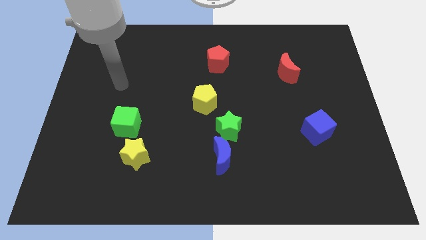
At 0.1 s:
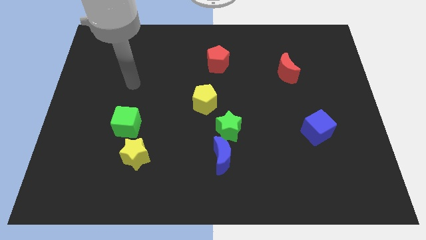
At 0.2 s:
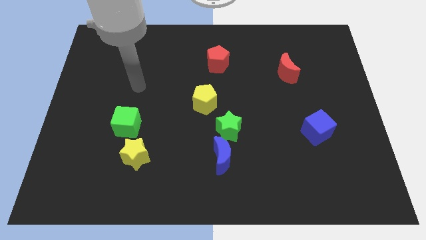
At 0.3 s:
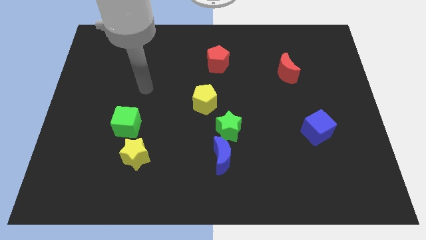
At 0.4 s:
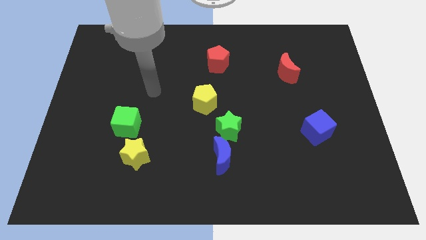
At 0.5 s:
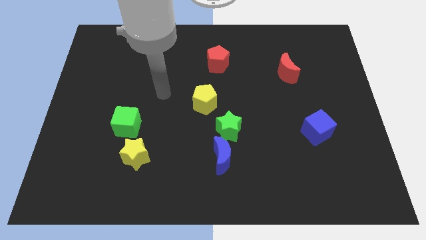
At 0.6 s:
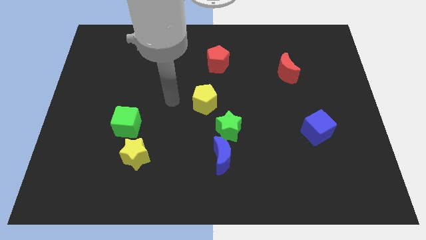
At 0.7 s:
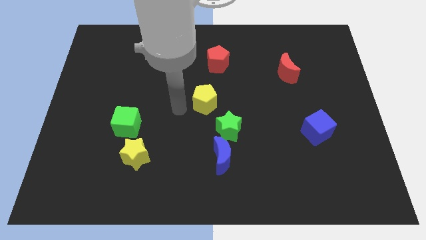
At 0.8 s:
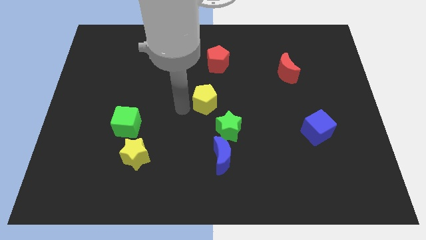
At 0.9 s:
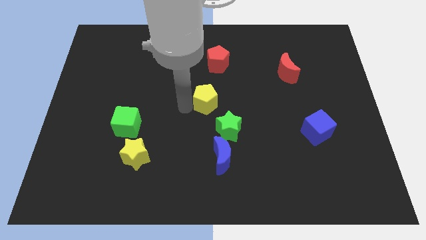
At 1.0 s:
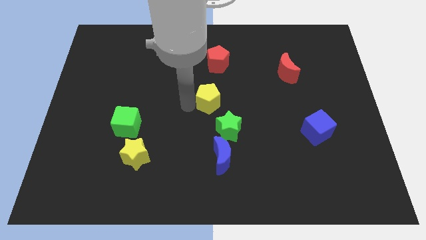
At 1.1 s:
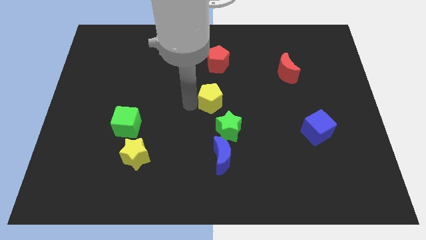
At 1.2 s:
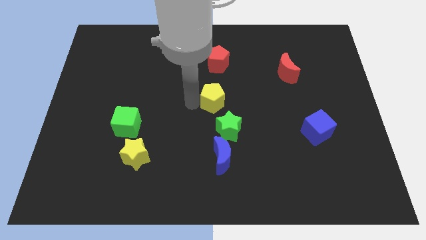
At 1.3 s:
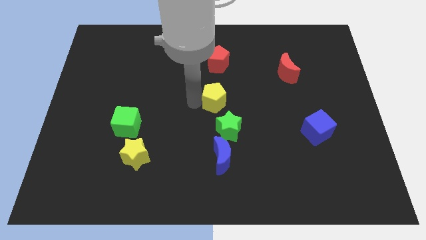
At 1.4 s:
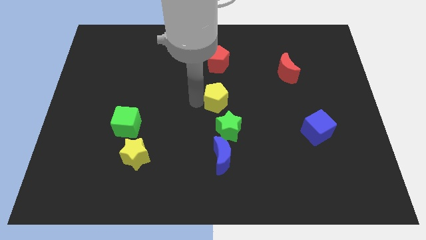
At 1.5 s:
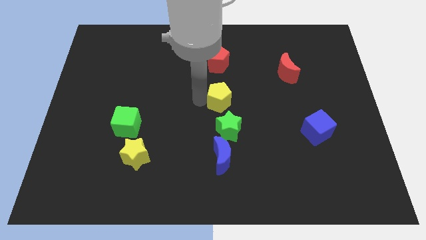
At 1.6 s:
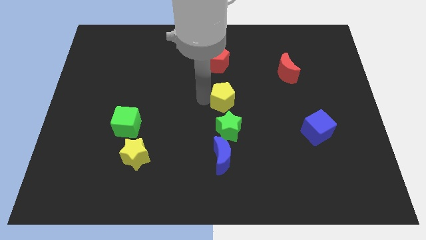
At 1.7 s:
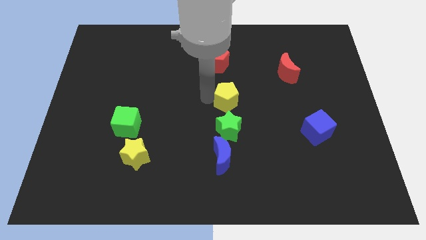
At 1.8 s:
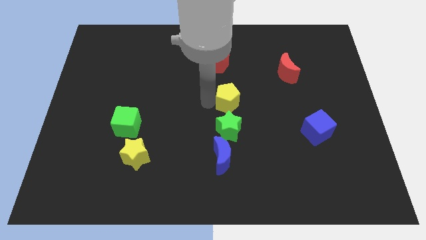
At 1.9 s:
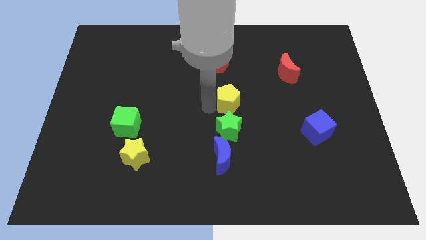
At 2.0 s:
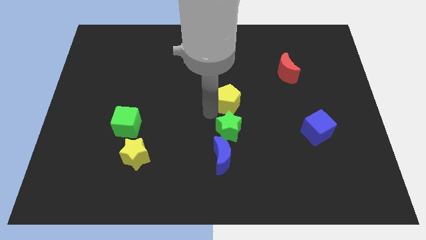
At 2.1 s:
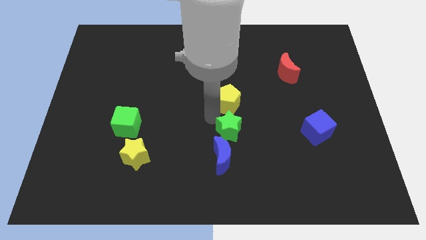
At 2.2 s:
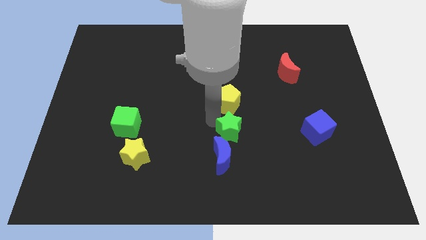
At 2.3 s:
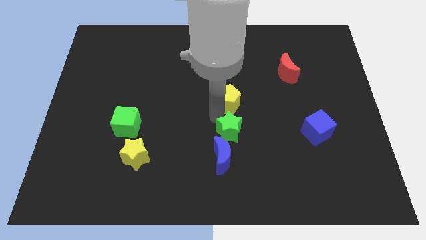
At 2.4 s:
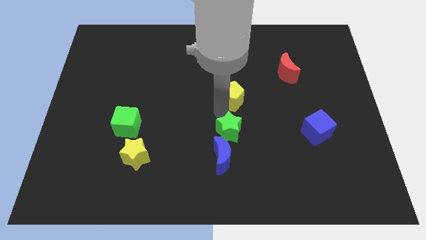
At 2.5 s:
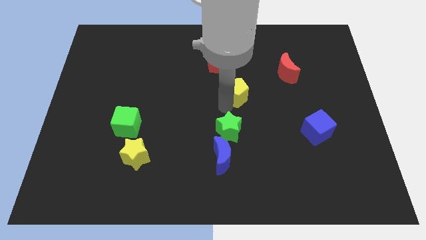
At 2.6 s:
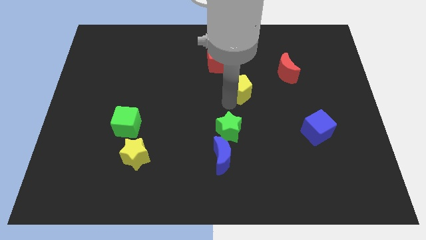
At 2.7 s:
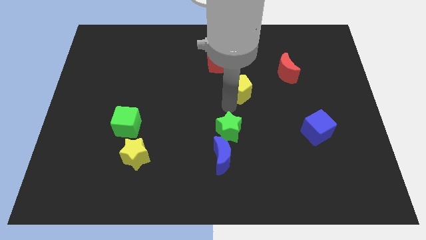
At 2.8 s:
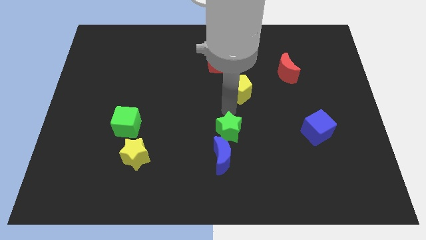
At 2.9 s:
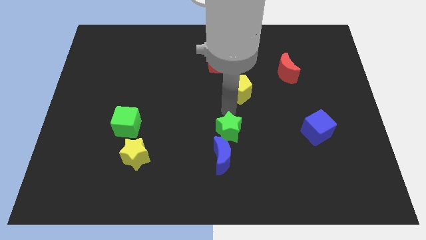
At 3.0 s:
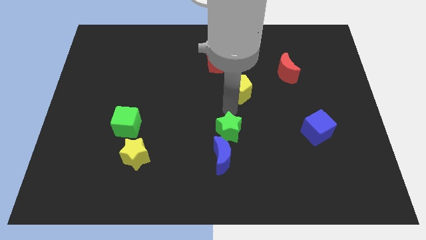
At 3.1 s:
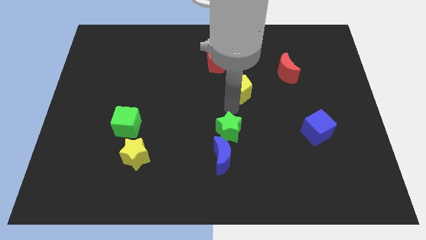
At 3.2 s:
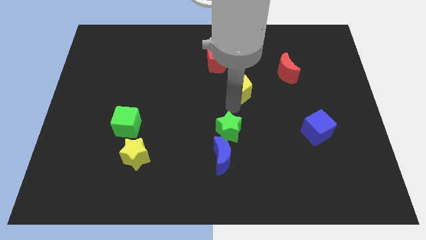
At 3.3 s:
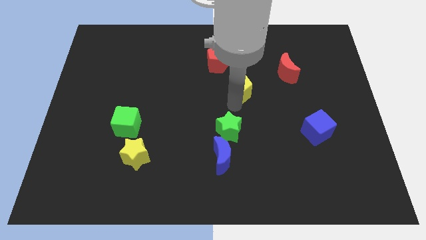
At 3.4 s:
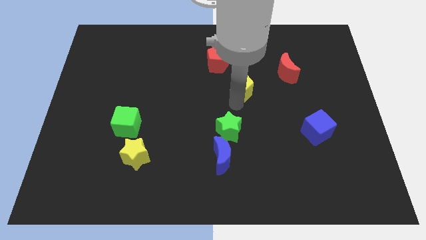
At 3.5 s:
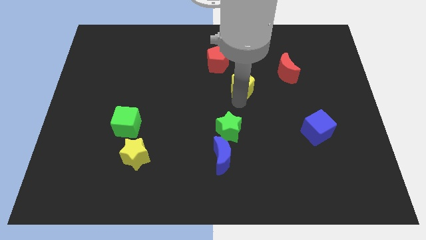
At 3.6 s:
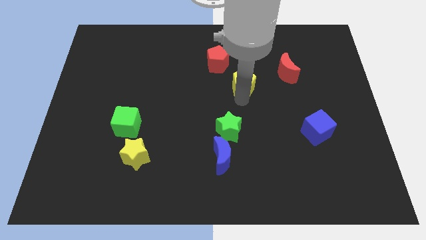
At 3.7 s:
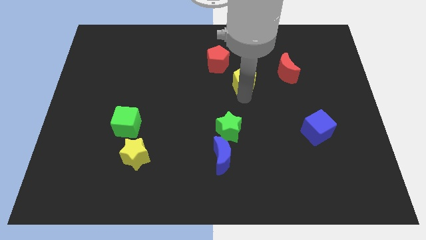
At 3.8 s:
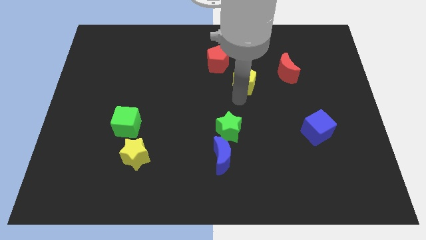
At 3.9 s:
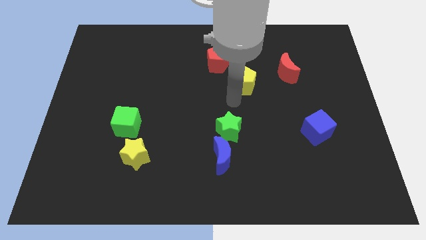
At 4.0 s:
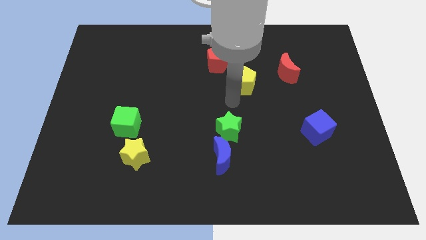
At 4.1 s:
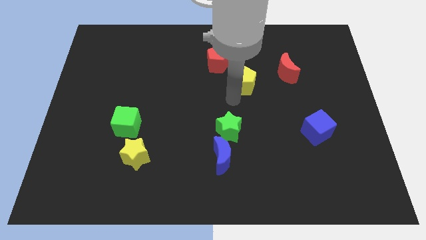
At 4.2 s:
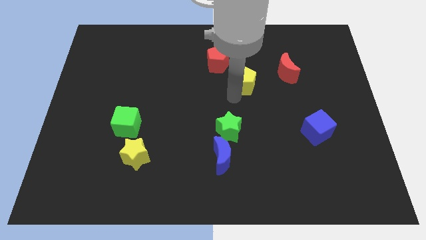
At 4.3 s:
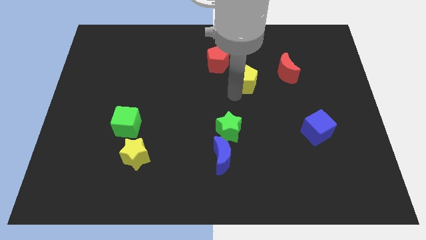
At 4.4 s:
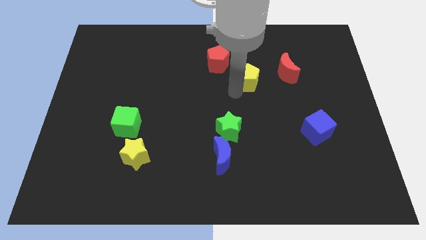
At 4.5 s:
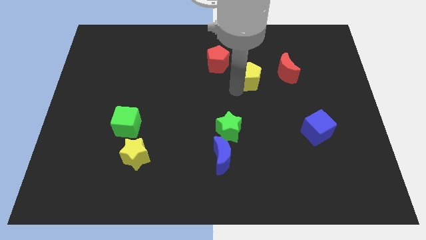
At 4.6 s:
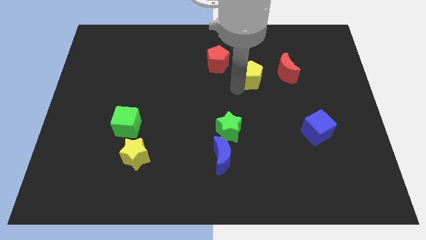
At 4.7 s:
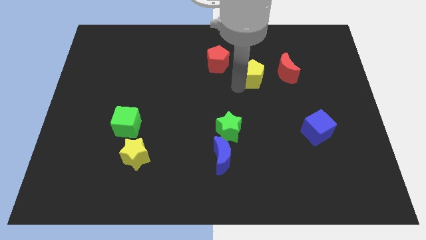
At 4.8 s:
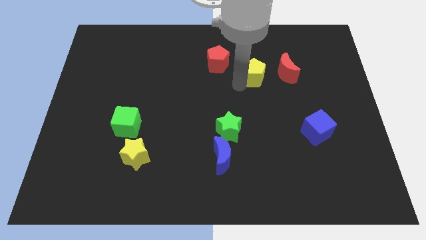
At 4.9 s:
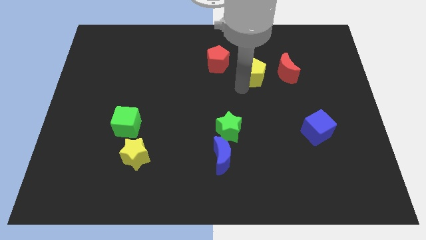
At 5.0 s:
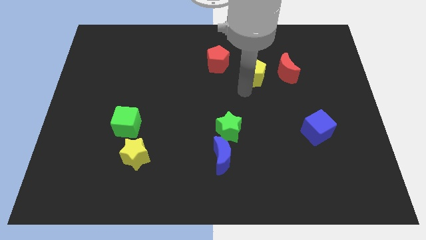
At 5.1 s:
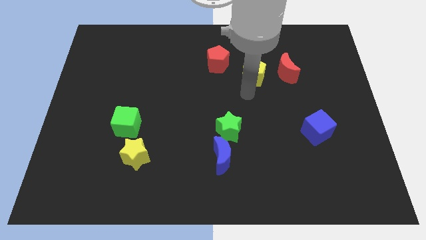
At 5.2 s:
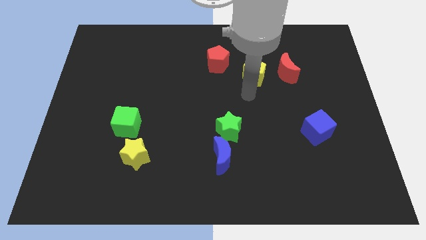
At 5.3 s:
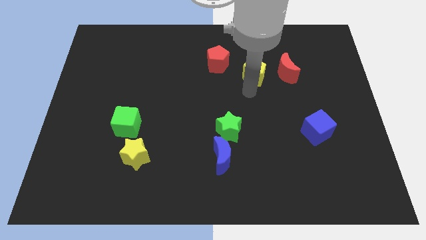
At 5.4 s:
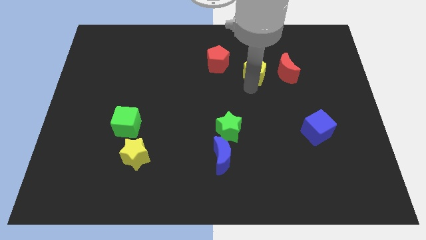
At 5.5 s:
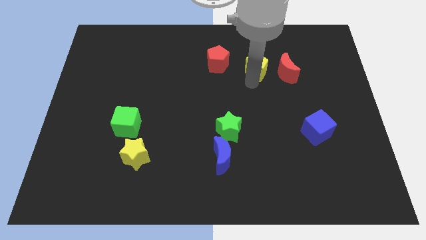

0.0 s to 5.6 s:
move the yellow pentagon to the top left of the red moon

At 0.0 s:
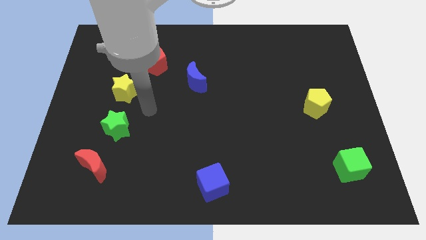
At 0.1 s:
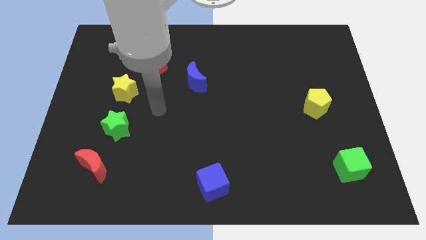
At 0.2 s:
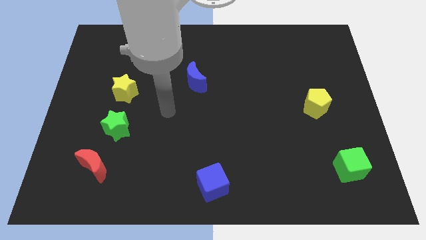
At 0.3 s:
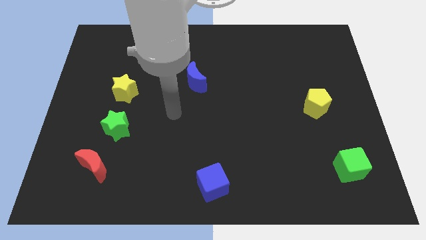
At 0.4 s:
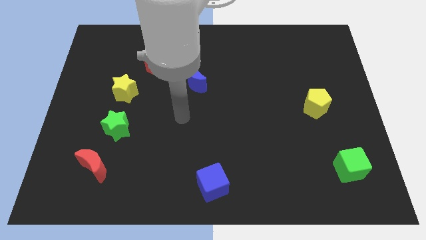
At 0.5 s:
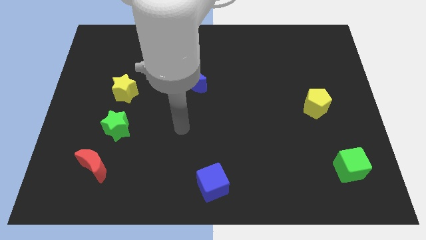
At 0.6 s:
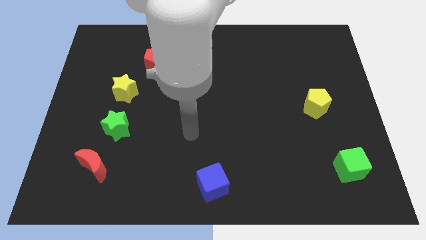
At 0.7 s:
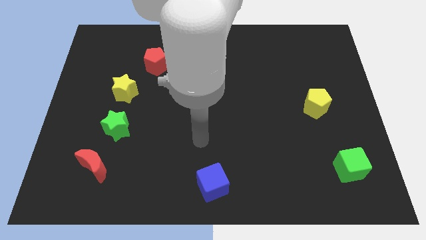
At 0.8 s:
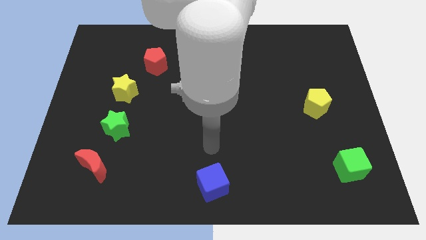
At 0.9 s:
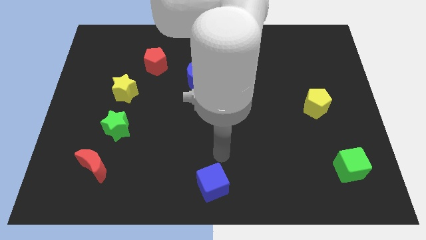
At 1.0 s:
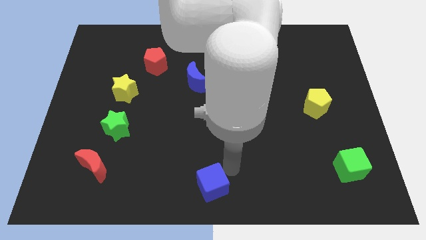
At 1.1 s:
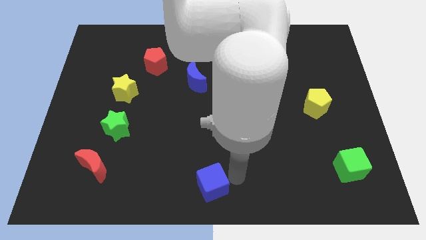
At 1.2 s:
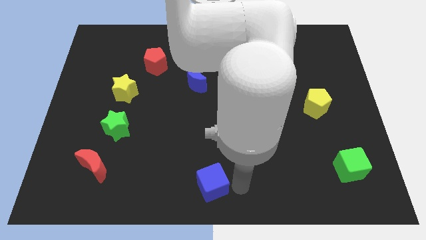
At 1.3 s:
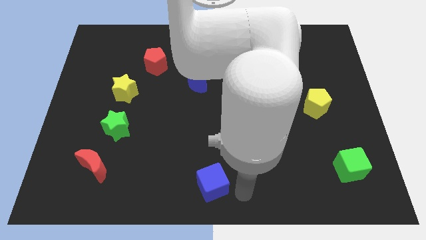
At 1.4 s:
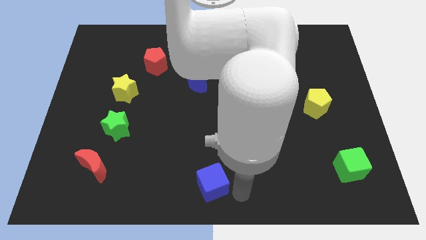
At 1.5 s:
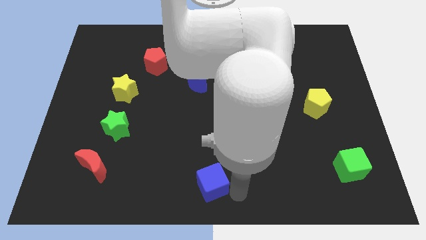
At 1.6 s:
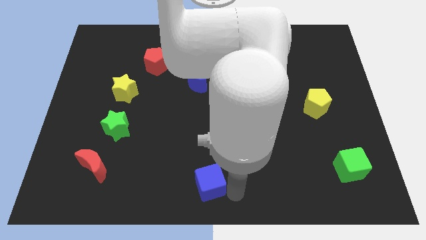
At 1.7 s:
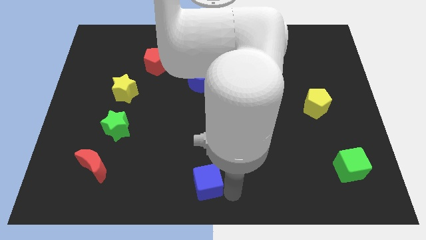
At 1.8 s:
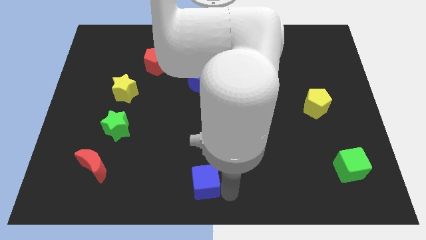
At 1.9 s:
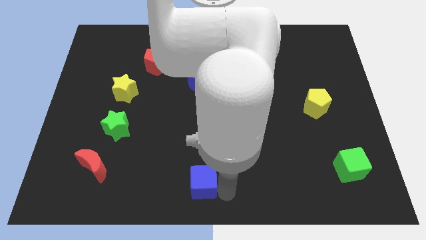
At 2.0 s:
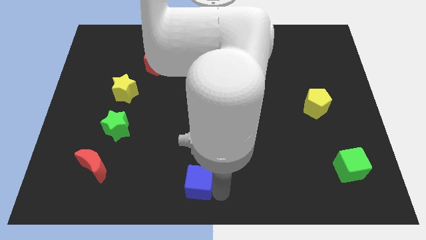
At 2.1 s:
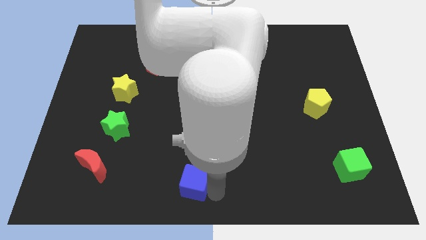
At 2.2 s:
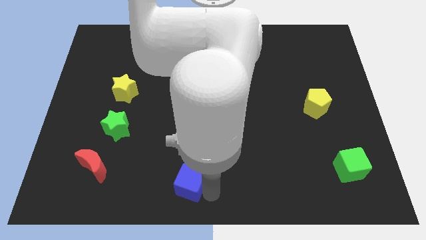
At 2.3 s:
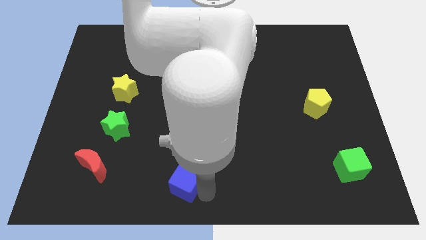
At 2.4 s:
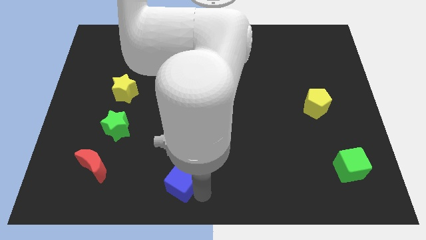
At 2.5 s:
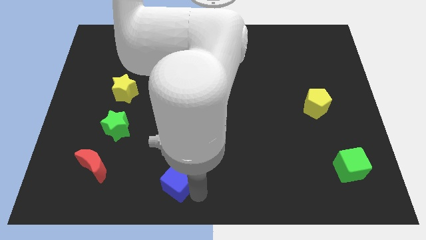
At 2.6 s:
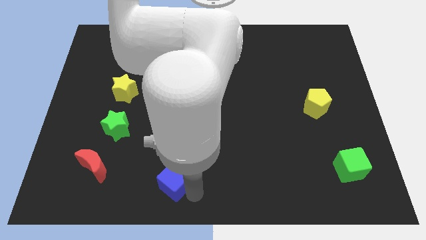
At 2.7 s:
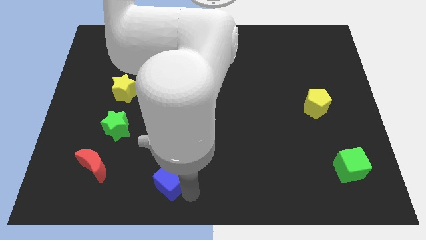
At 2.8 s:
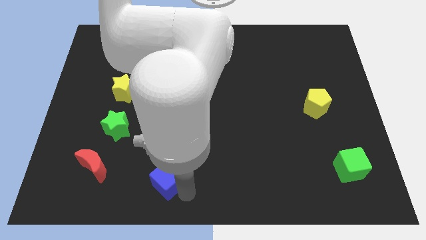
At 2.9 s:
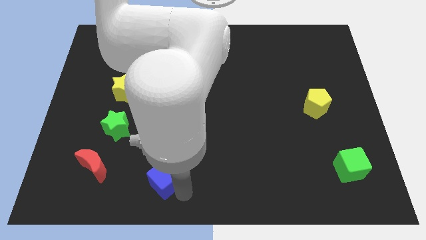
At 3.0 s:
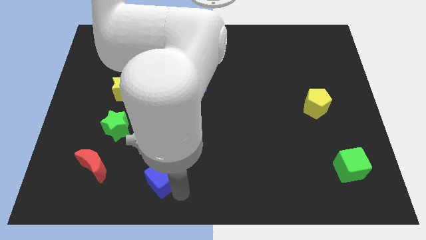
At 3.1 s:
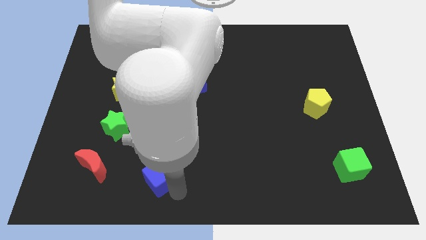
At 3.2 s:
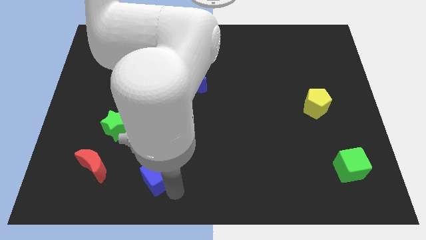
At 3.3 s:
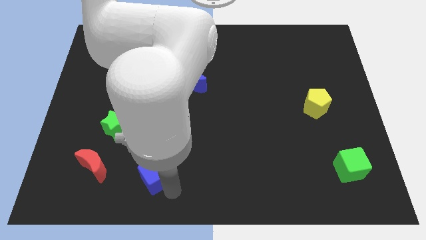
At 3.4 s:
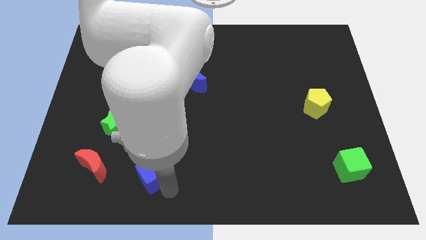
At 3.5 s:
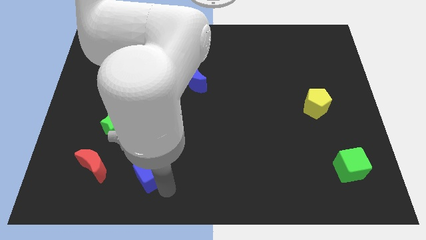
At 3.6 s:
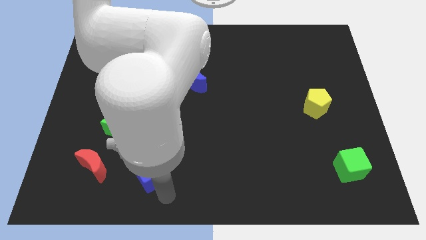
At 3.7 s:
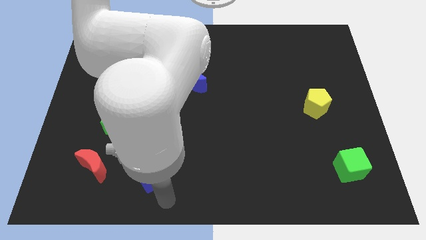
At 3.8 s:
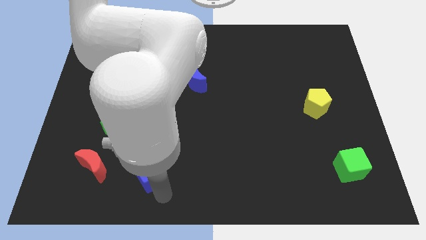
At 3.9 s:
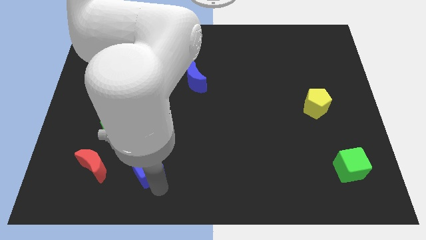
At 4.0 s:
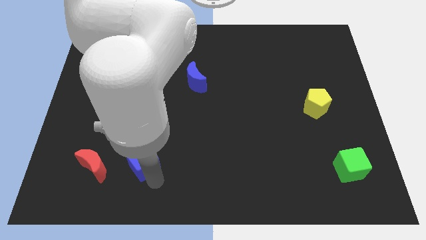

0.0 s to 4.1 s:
put the blue cube to the bottom right side of the green star
